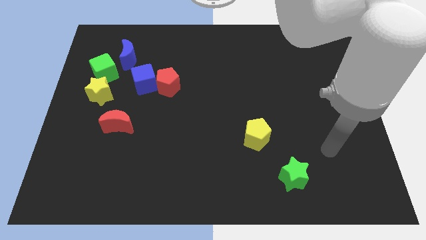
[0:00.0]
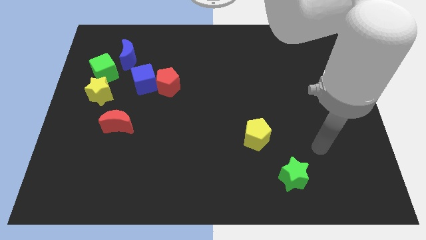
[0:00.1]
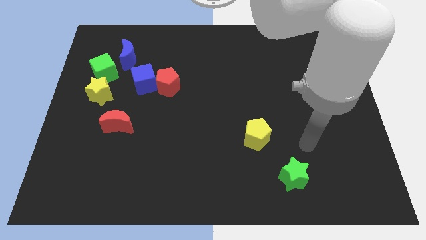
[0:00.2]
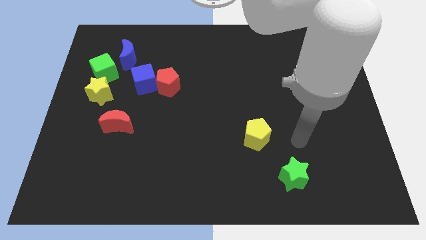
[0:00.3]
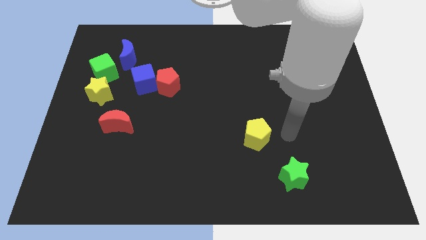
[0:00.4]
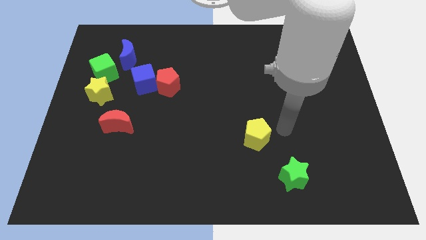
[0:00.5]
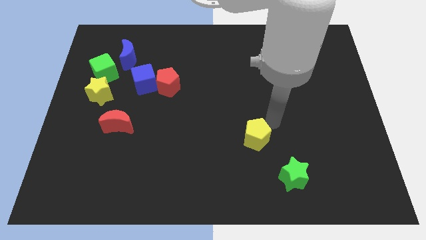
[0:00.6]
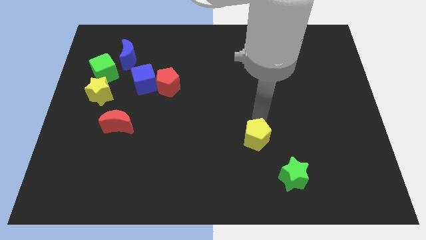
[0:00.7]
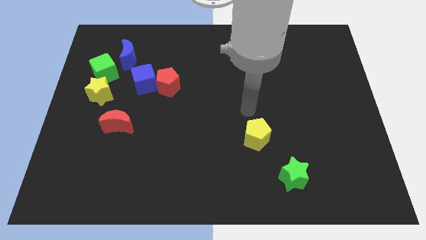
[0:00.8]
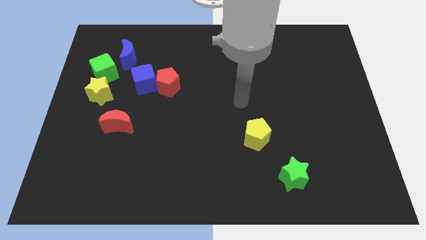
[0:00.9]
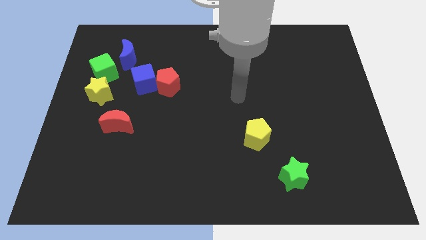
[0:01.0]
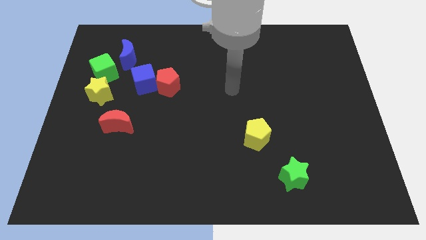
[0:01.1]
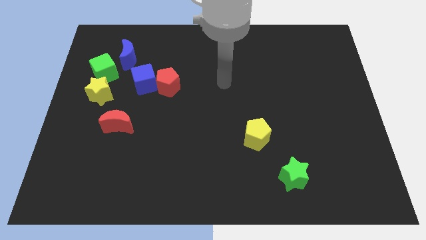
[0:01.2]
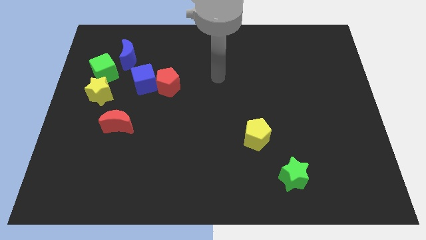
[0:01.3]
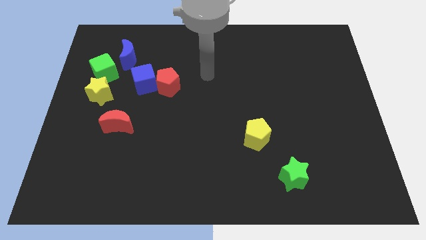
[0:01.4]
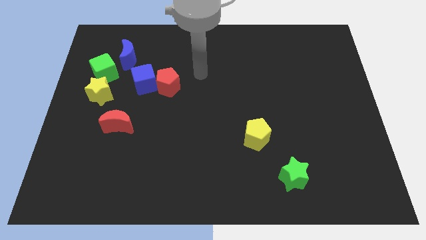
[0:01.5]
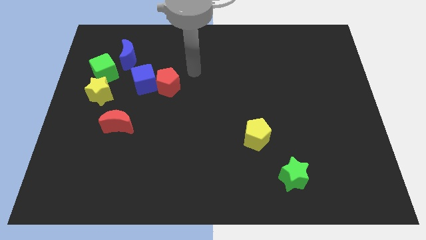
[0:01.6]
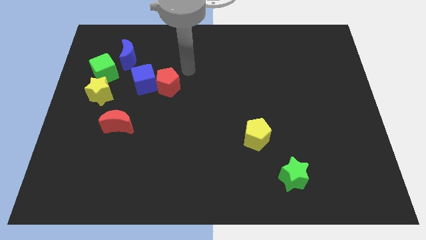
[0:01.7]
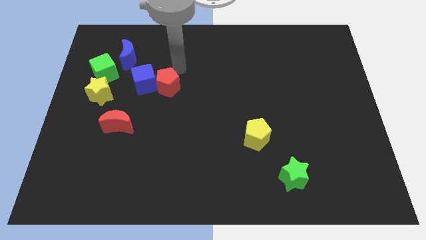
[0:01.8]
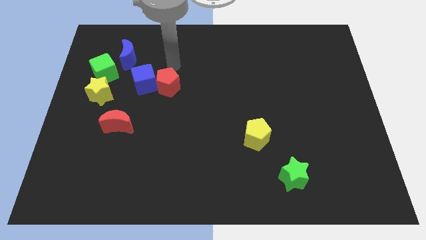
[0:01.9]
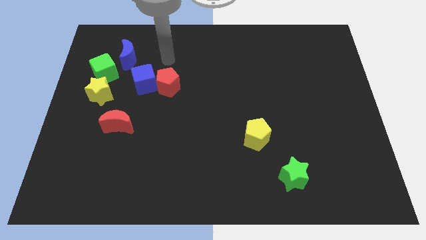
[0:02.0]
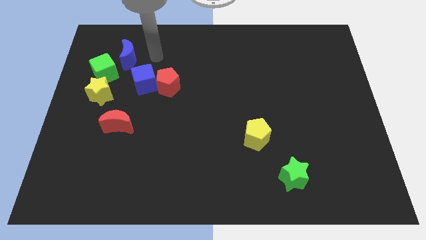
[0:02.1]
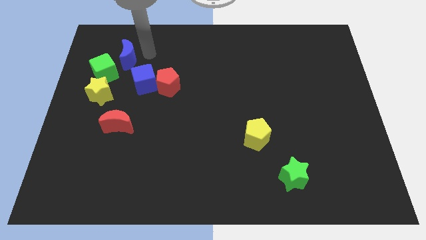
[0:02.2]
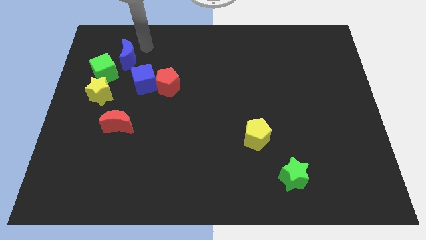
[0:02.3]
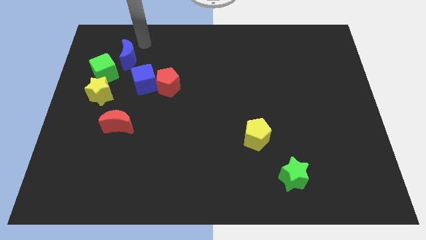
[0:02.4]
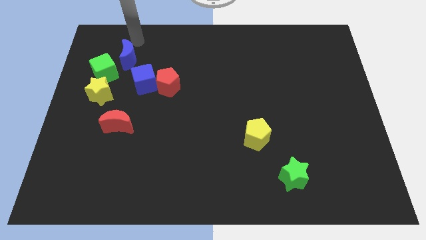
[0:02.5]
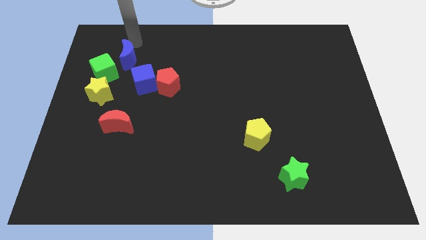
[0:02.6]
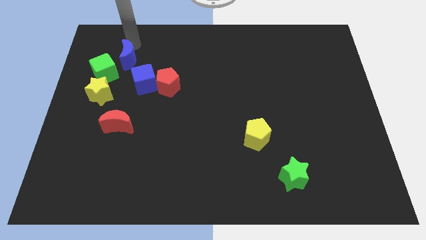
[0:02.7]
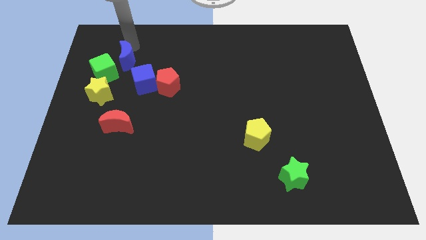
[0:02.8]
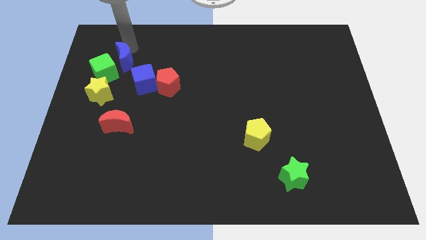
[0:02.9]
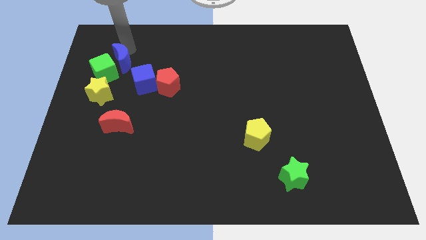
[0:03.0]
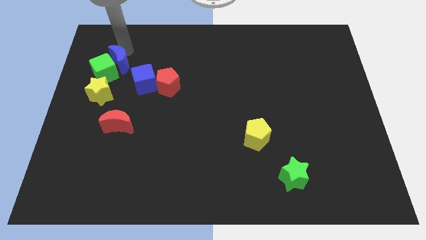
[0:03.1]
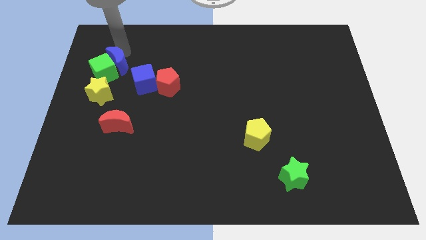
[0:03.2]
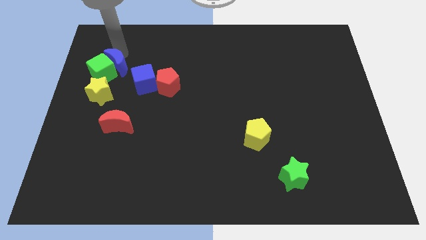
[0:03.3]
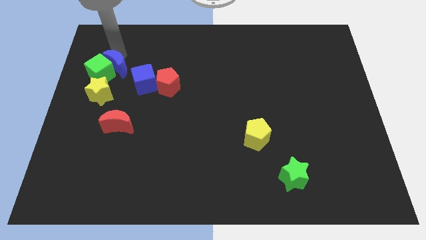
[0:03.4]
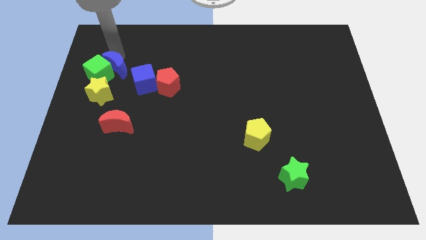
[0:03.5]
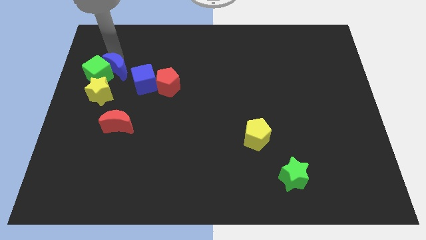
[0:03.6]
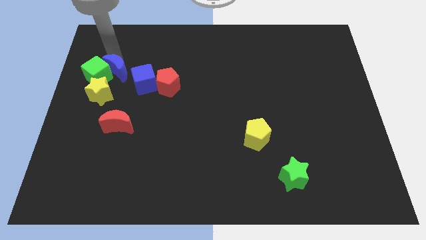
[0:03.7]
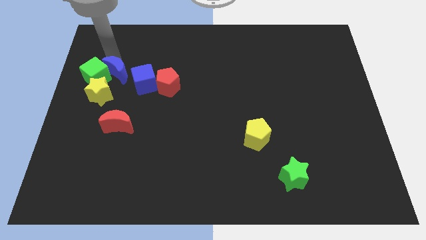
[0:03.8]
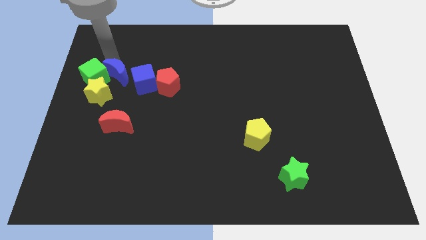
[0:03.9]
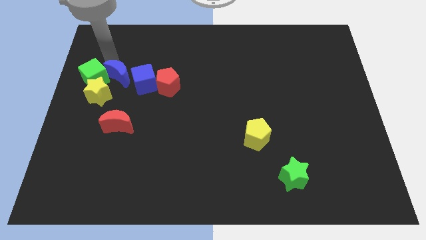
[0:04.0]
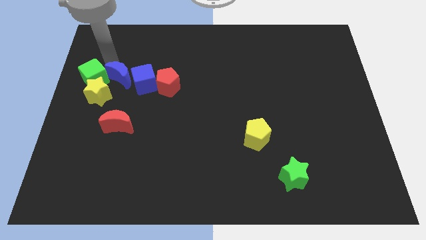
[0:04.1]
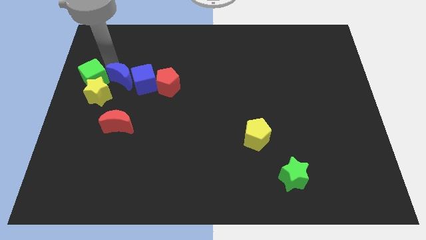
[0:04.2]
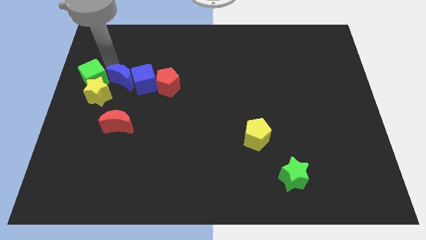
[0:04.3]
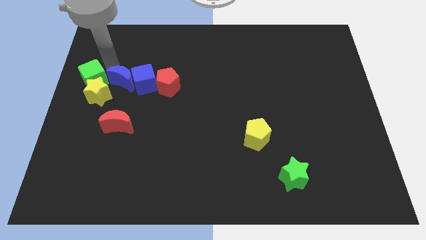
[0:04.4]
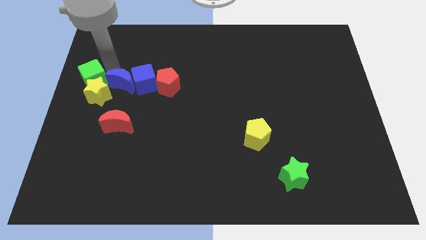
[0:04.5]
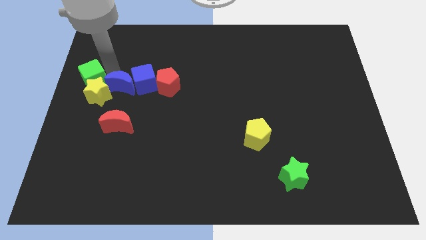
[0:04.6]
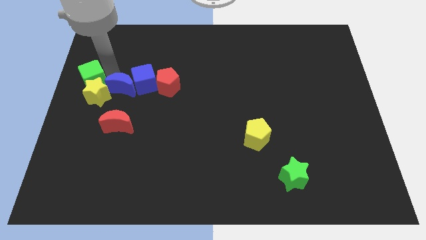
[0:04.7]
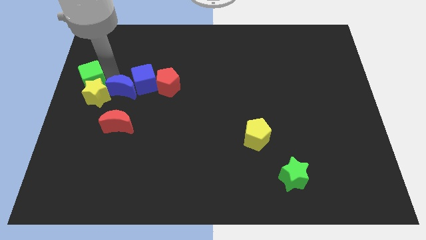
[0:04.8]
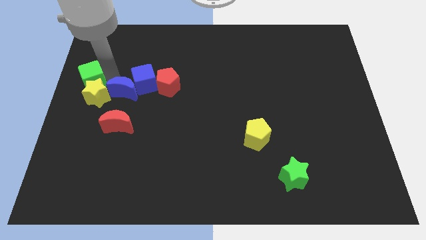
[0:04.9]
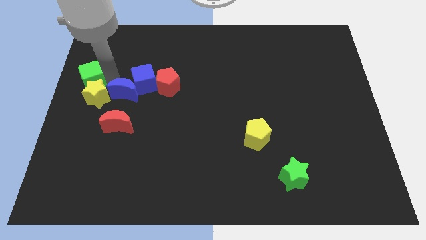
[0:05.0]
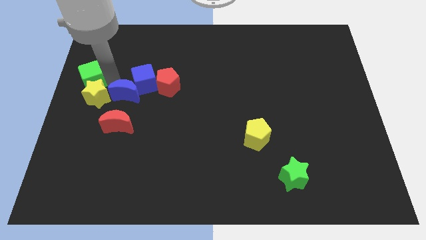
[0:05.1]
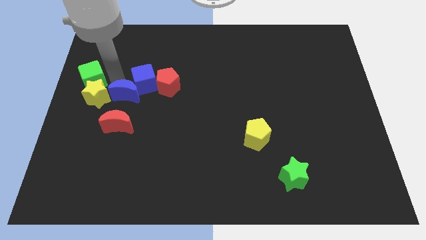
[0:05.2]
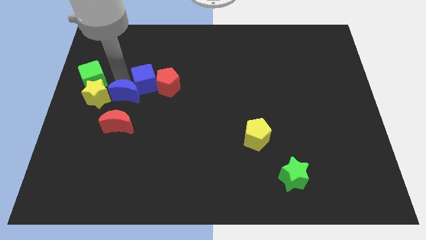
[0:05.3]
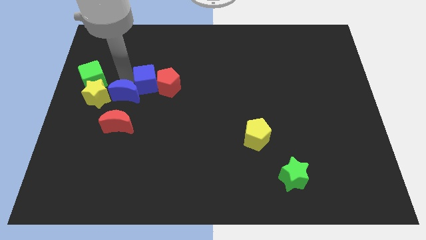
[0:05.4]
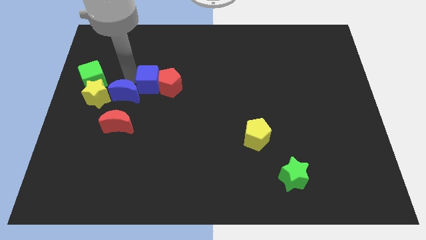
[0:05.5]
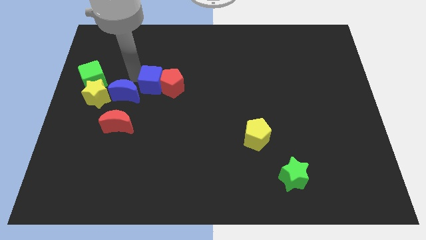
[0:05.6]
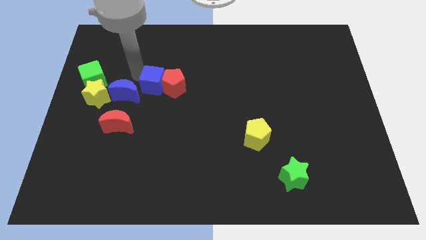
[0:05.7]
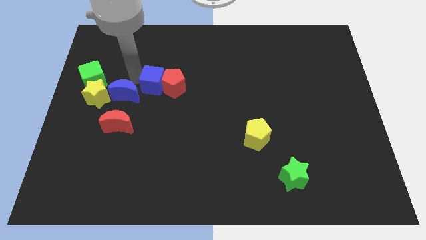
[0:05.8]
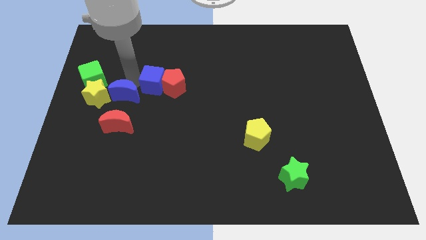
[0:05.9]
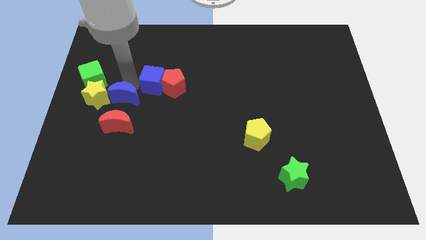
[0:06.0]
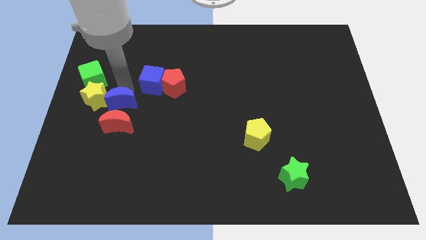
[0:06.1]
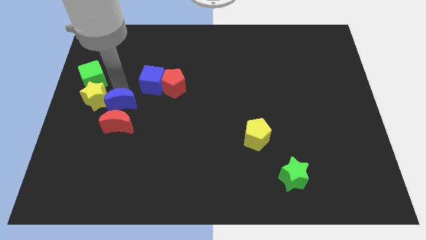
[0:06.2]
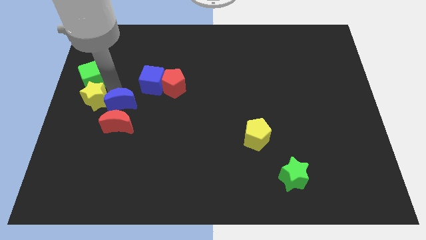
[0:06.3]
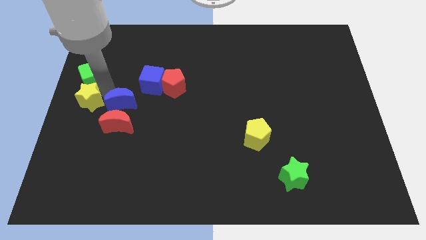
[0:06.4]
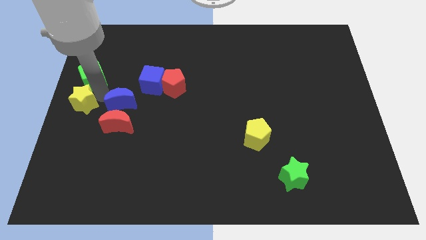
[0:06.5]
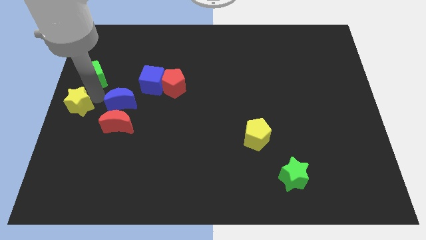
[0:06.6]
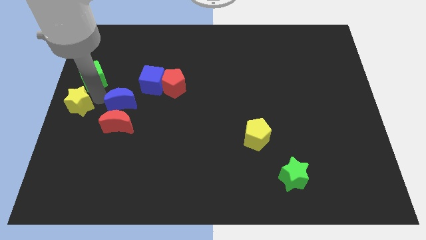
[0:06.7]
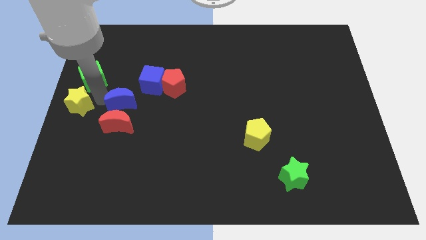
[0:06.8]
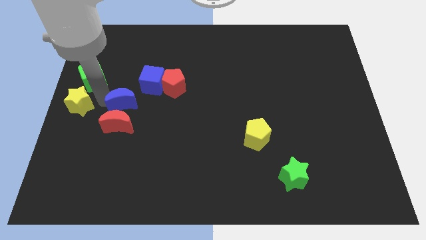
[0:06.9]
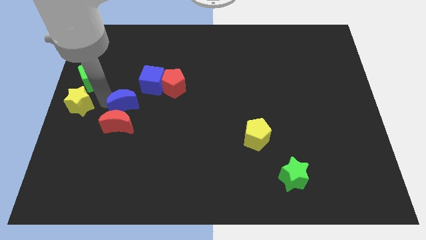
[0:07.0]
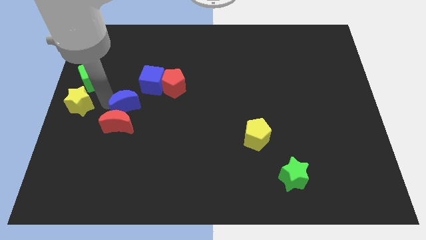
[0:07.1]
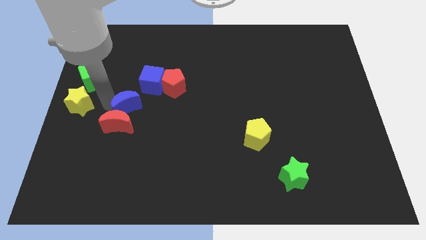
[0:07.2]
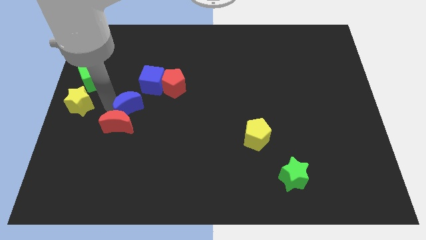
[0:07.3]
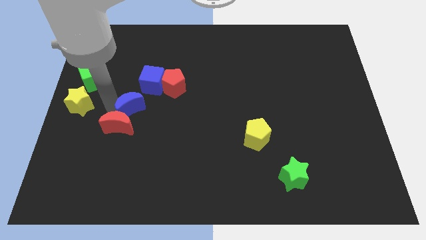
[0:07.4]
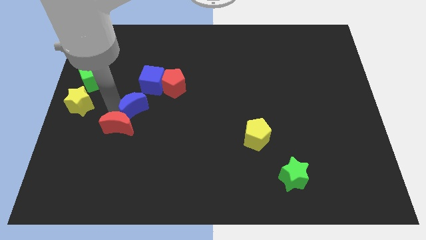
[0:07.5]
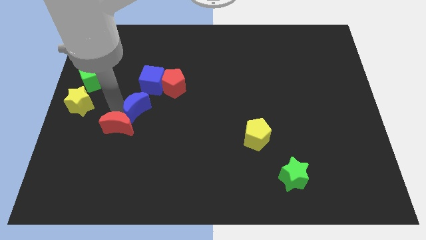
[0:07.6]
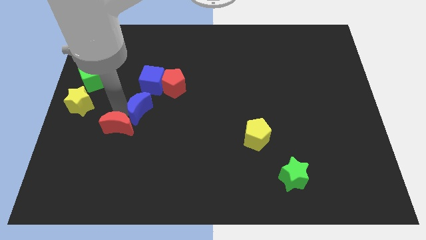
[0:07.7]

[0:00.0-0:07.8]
move the blue moon right of the red moon
